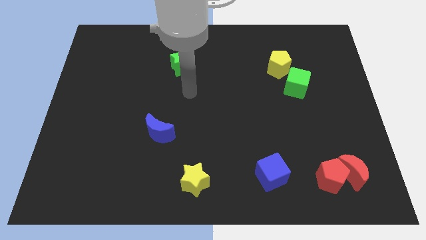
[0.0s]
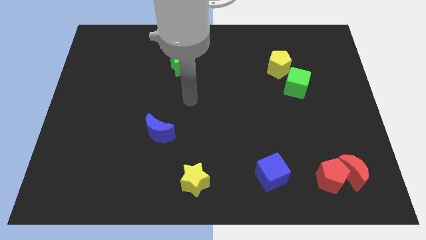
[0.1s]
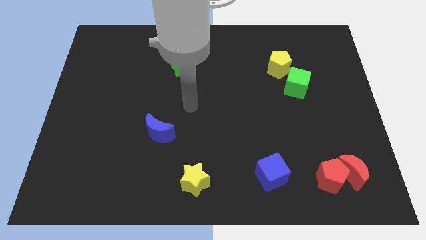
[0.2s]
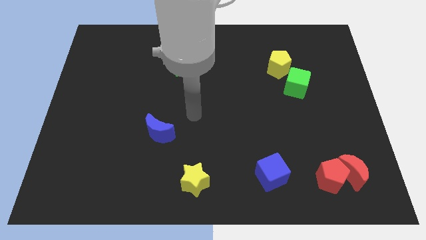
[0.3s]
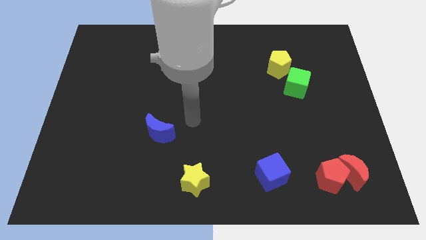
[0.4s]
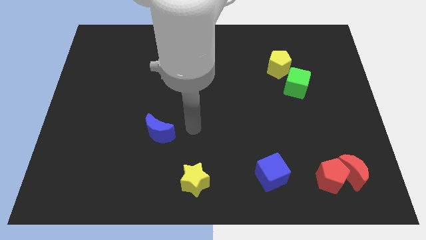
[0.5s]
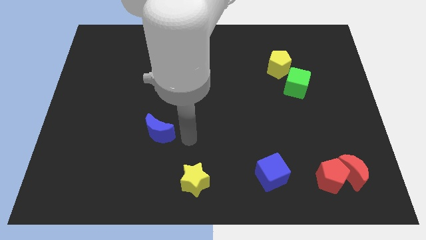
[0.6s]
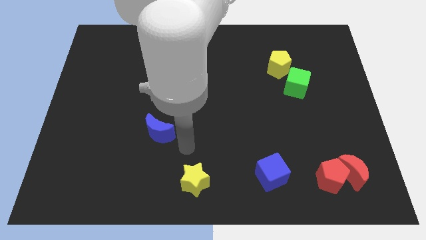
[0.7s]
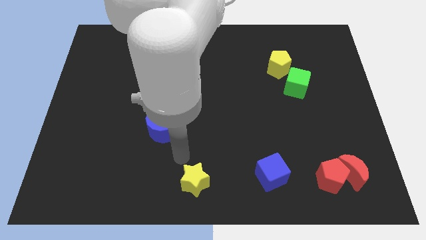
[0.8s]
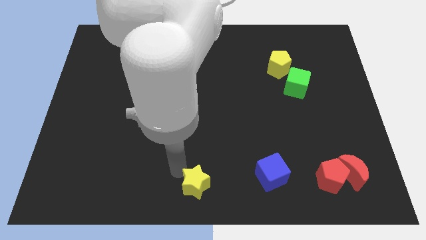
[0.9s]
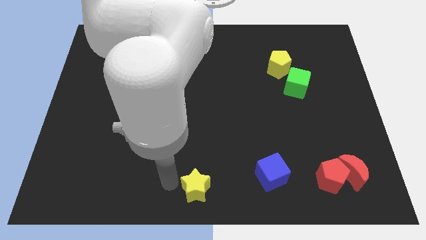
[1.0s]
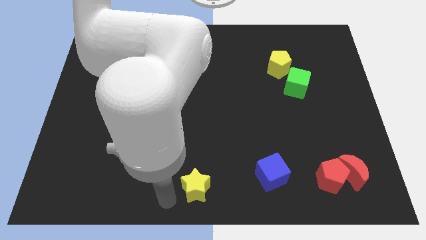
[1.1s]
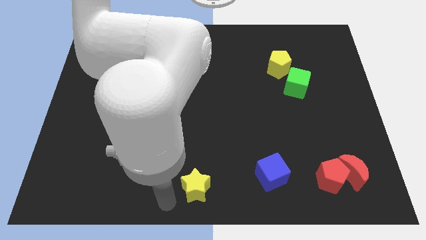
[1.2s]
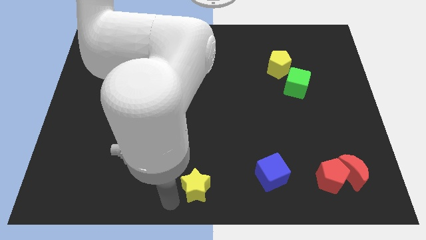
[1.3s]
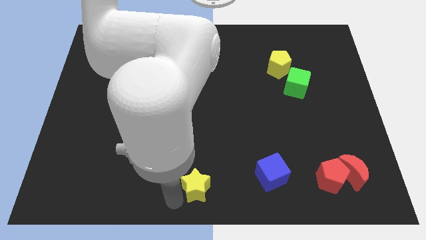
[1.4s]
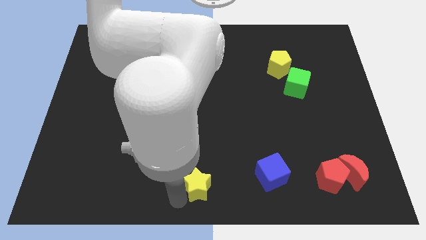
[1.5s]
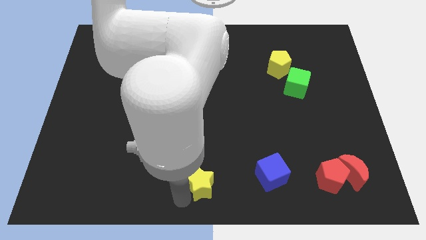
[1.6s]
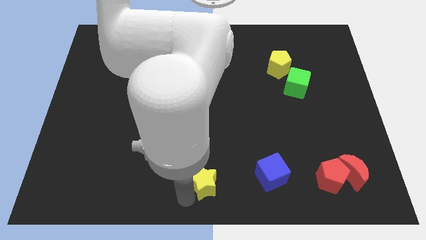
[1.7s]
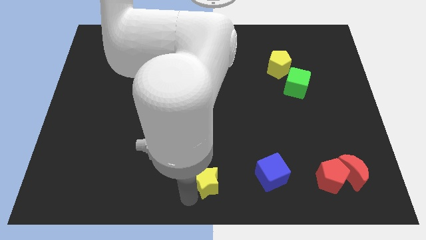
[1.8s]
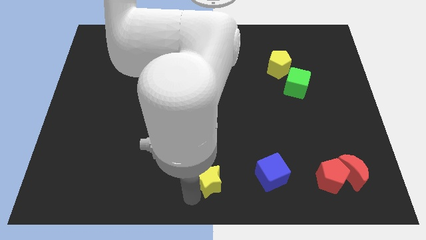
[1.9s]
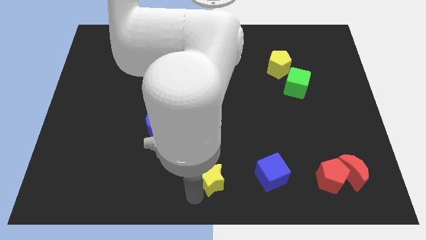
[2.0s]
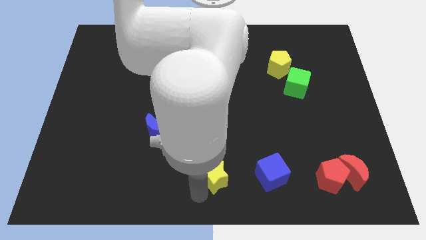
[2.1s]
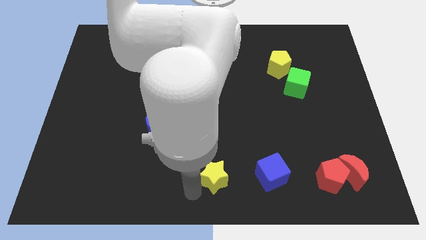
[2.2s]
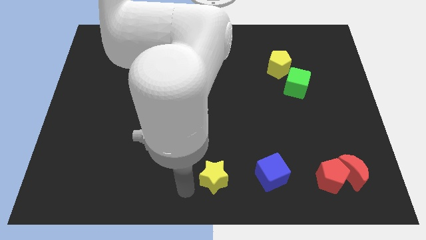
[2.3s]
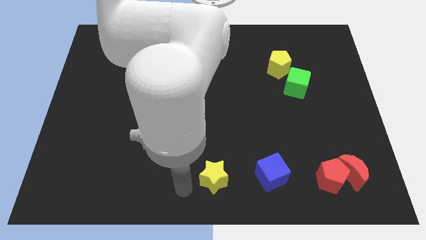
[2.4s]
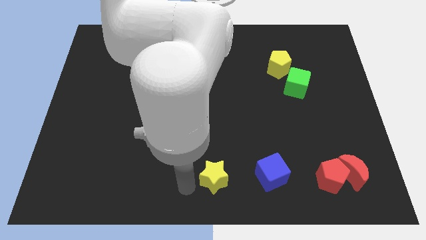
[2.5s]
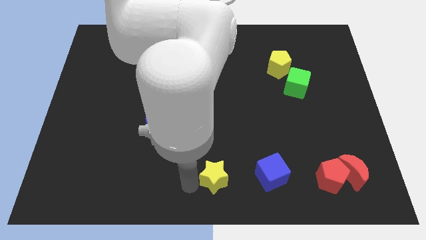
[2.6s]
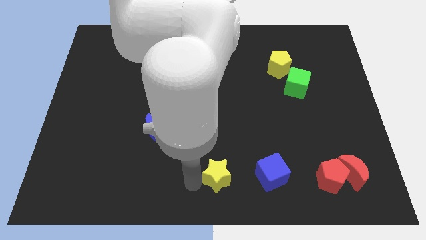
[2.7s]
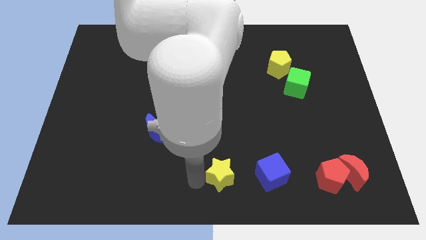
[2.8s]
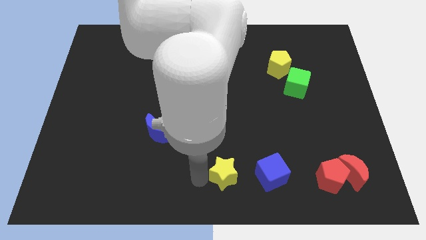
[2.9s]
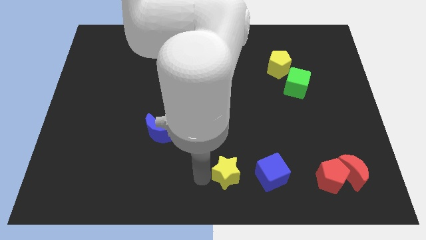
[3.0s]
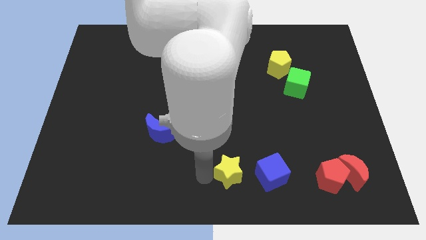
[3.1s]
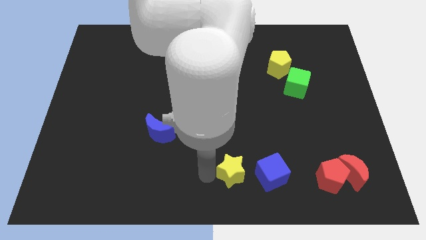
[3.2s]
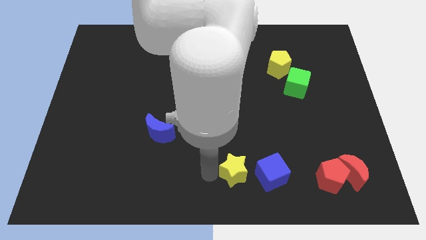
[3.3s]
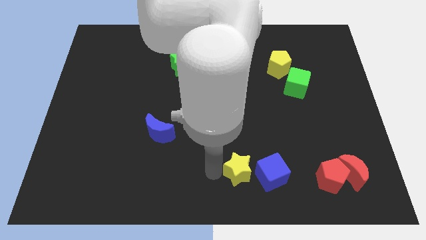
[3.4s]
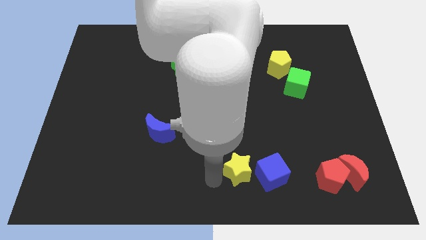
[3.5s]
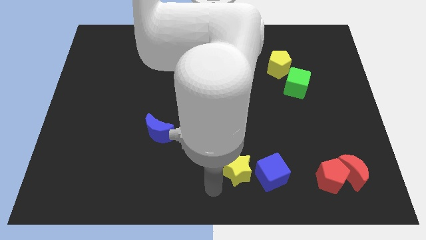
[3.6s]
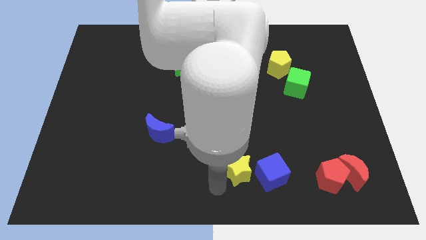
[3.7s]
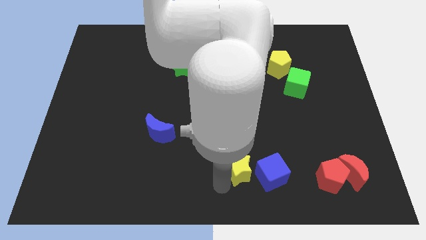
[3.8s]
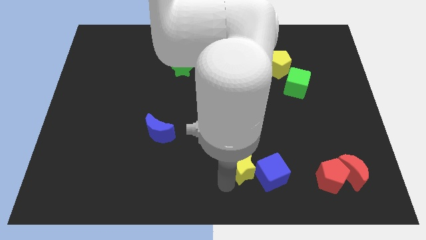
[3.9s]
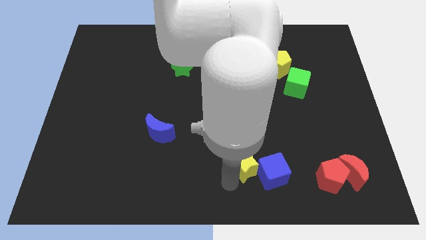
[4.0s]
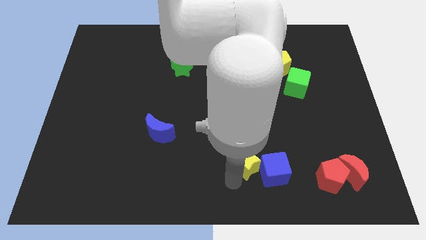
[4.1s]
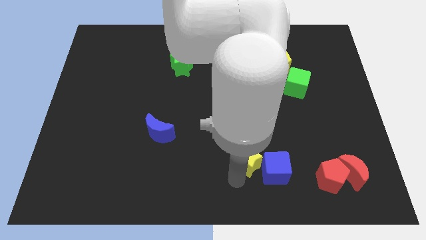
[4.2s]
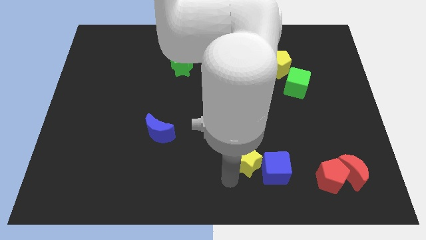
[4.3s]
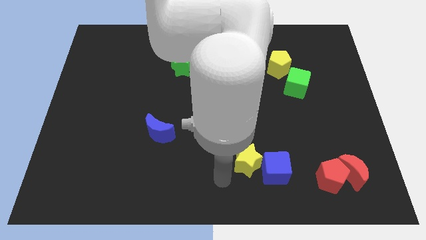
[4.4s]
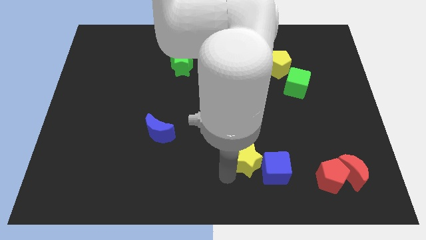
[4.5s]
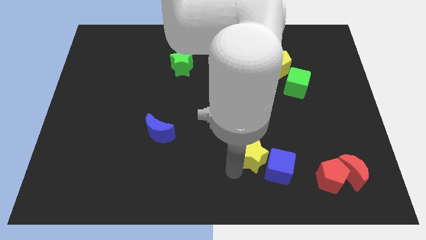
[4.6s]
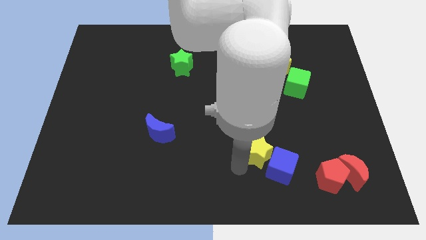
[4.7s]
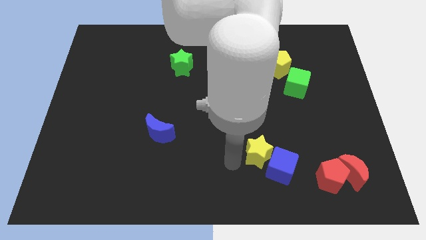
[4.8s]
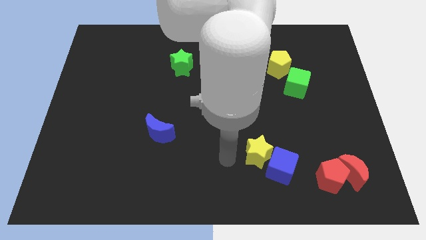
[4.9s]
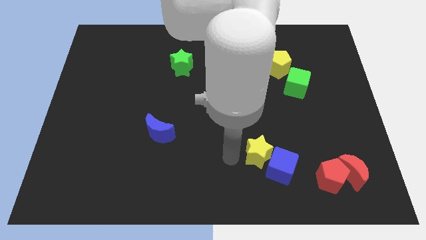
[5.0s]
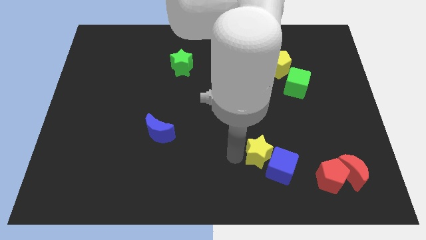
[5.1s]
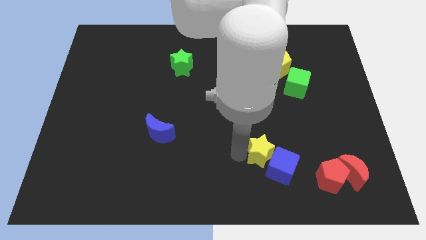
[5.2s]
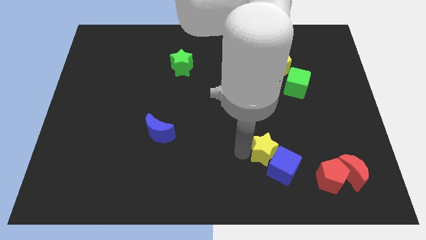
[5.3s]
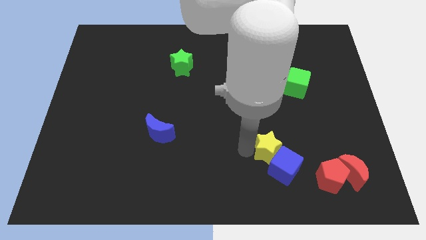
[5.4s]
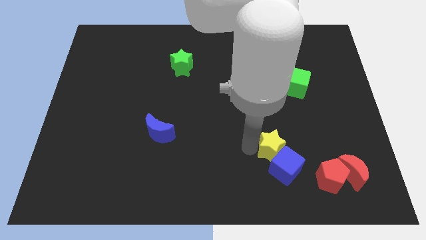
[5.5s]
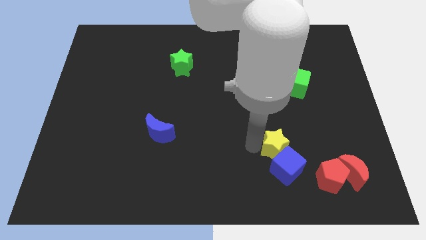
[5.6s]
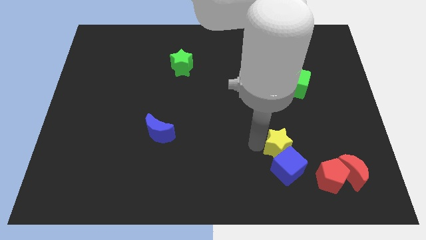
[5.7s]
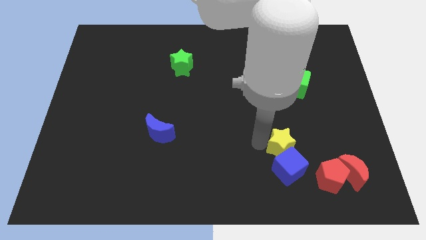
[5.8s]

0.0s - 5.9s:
push the yellow star to the top right of the blue cube

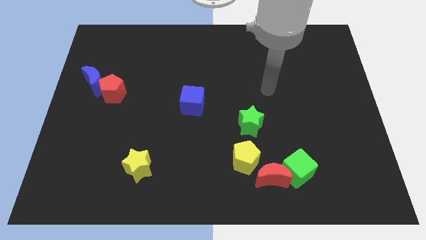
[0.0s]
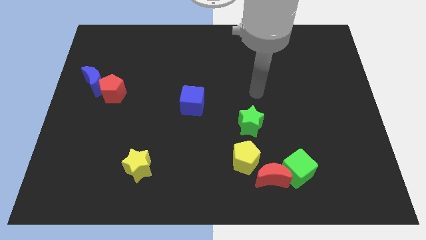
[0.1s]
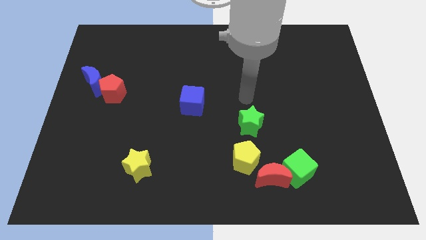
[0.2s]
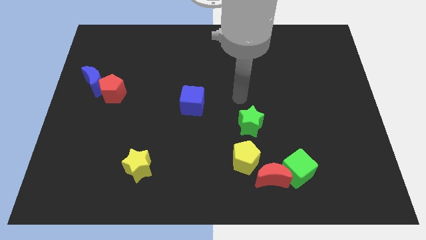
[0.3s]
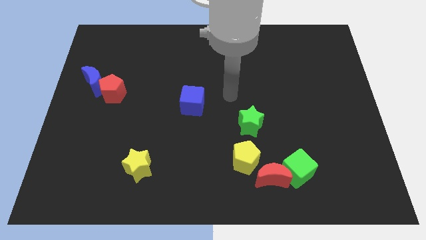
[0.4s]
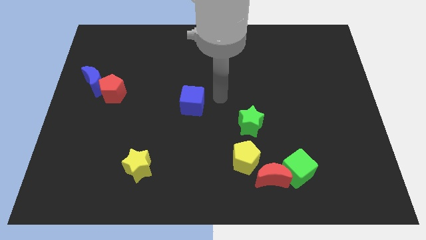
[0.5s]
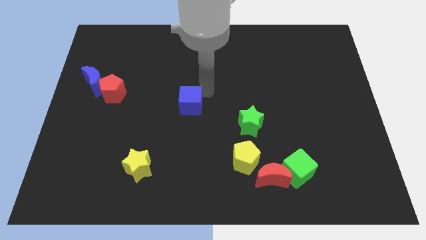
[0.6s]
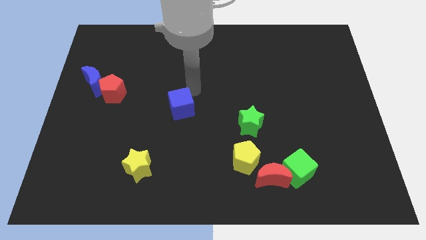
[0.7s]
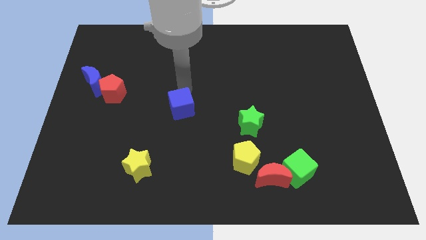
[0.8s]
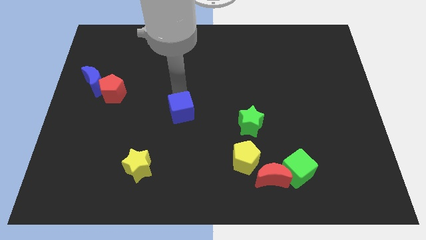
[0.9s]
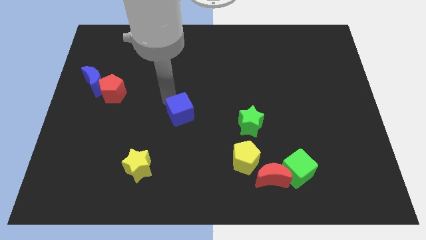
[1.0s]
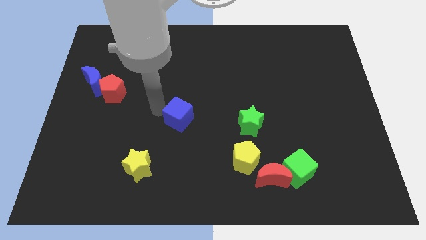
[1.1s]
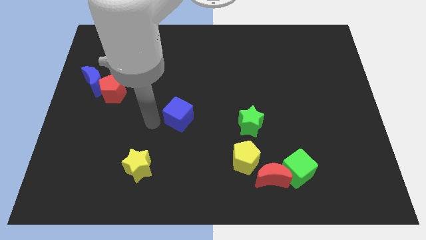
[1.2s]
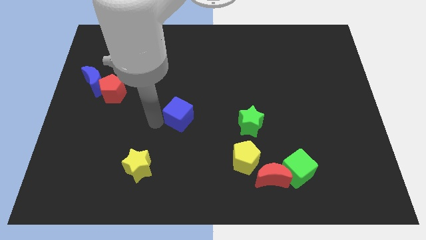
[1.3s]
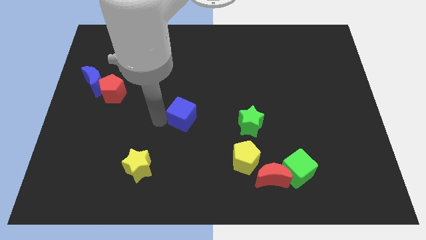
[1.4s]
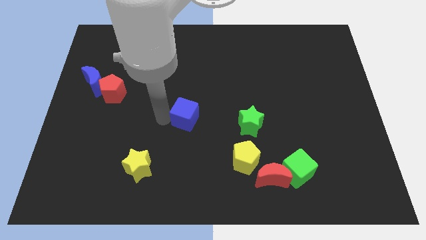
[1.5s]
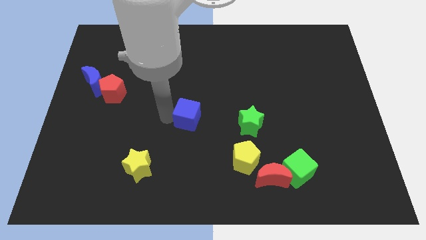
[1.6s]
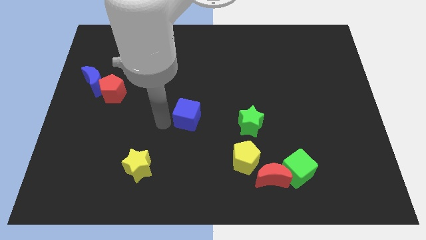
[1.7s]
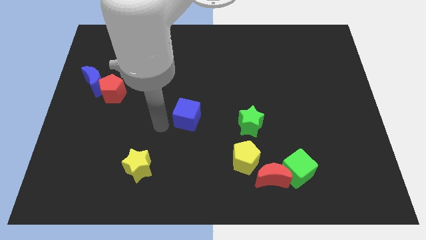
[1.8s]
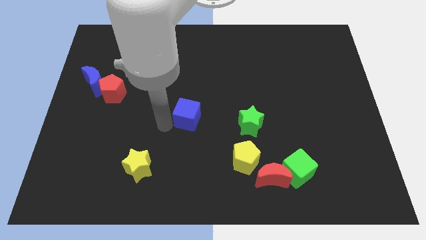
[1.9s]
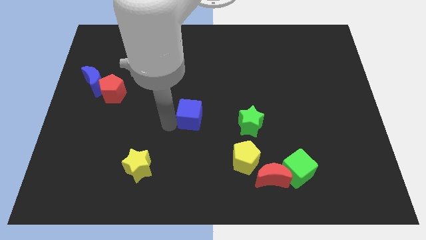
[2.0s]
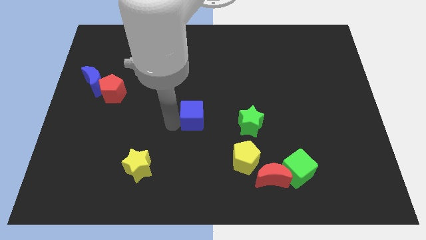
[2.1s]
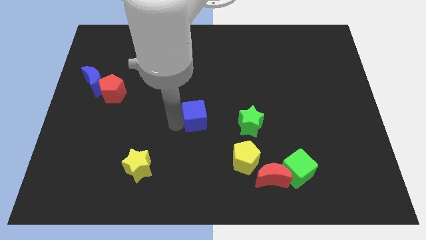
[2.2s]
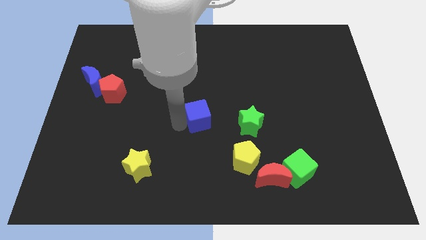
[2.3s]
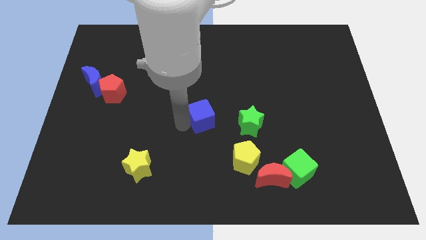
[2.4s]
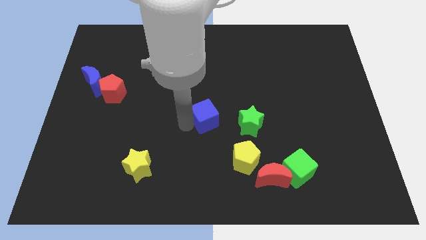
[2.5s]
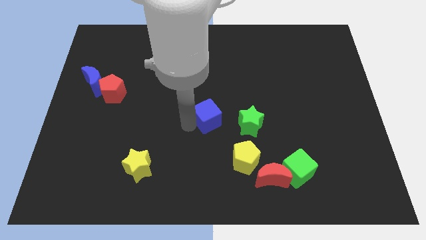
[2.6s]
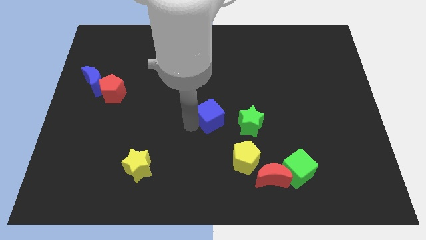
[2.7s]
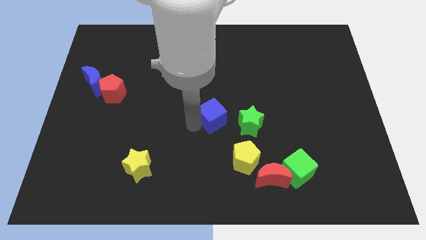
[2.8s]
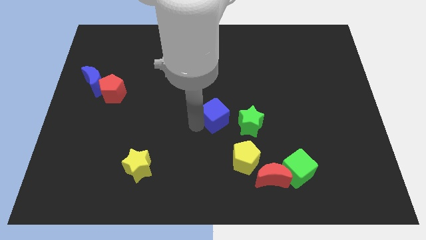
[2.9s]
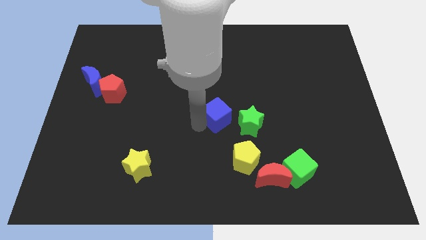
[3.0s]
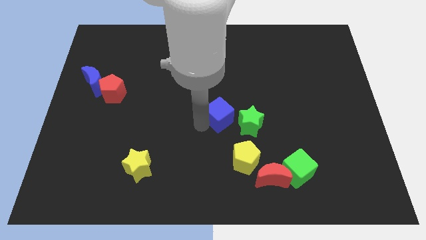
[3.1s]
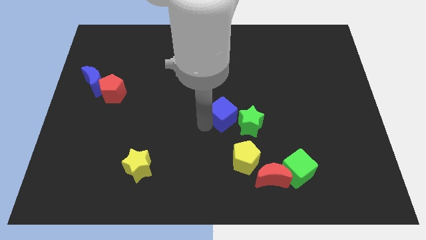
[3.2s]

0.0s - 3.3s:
slide the blue cube above the yellow pentagon
